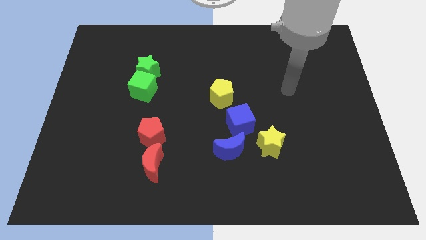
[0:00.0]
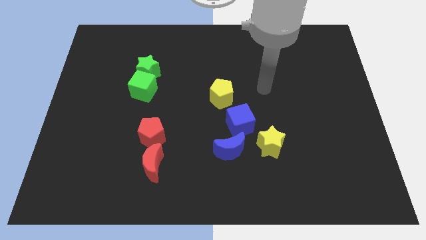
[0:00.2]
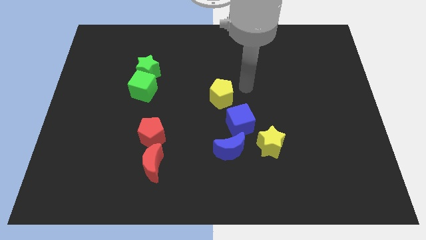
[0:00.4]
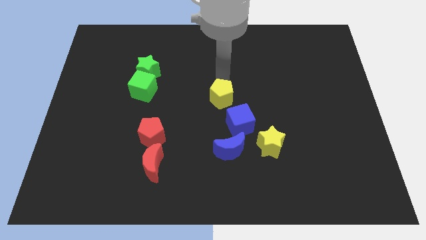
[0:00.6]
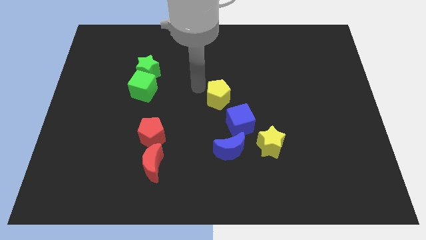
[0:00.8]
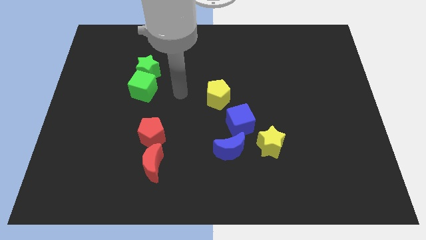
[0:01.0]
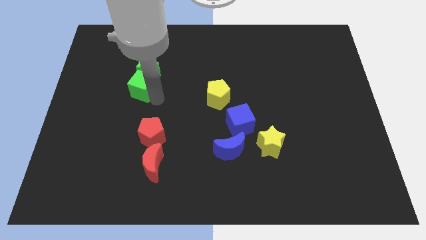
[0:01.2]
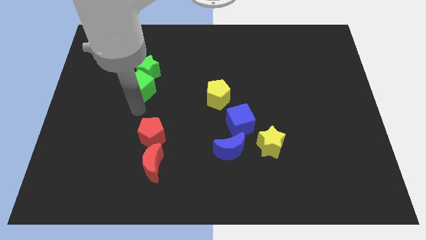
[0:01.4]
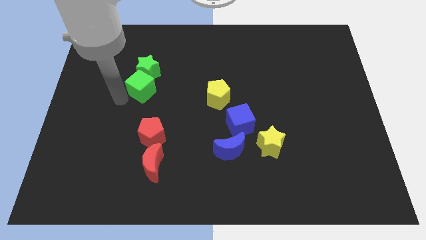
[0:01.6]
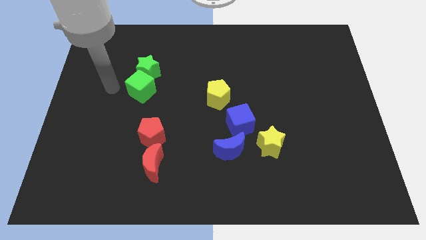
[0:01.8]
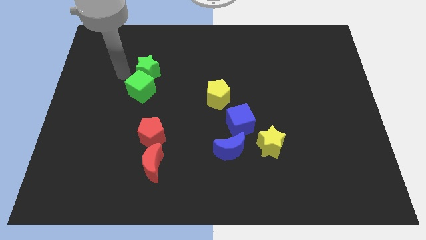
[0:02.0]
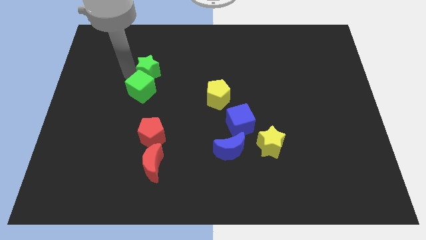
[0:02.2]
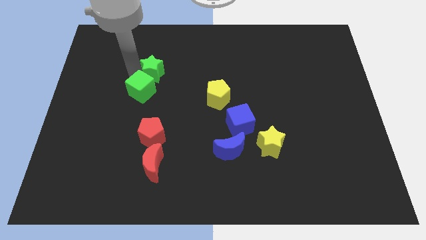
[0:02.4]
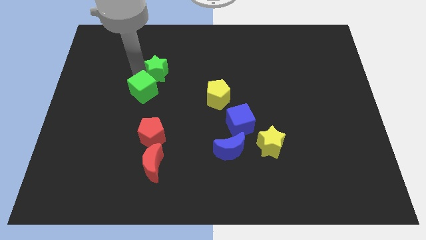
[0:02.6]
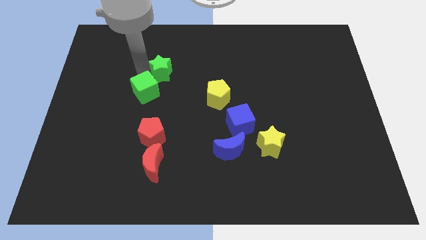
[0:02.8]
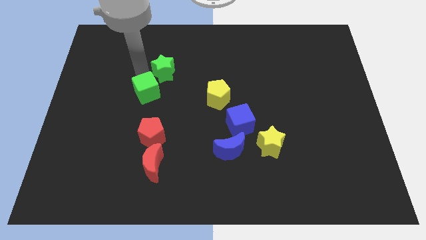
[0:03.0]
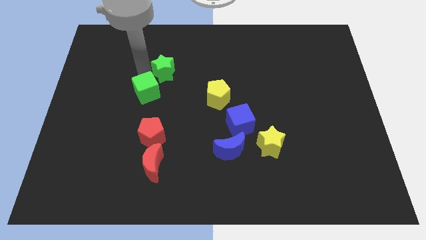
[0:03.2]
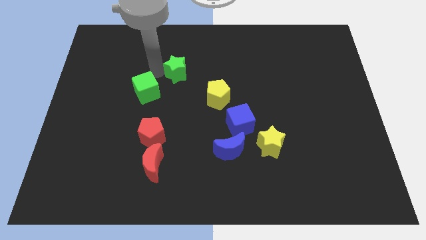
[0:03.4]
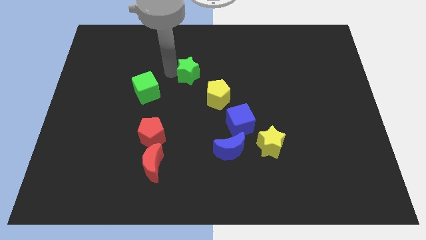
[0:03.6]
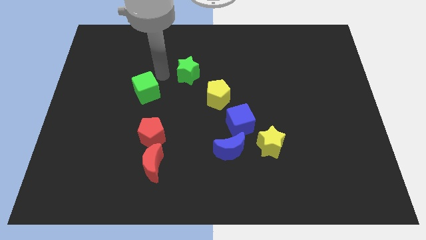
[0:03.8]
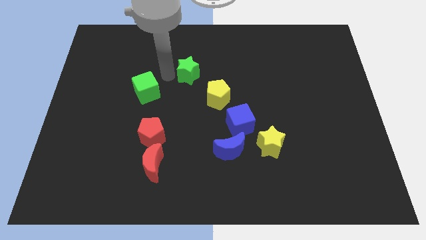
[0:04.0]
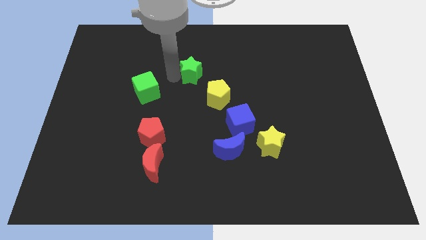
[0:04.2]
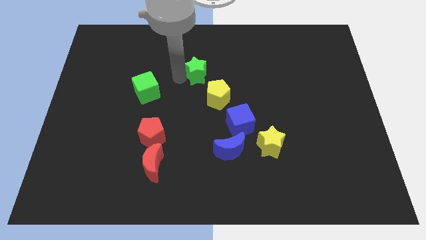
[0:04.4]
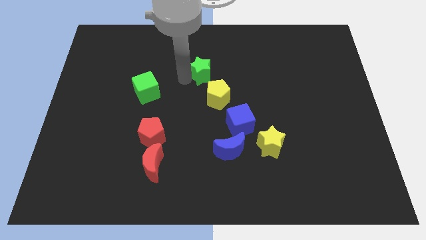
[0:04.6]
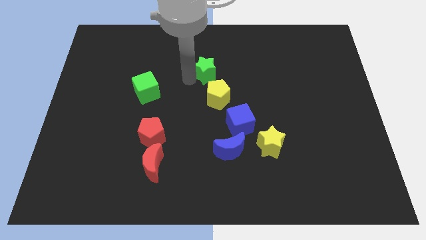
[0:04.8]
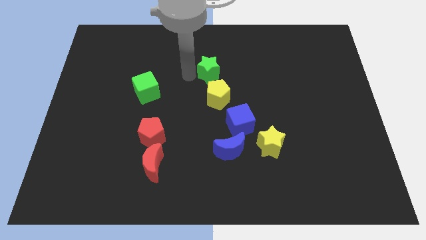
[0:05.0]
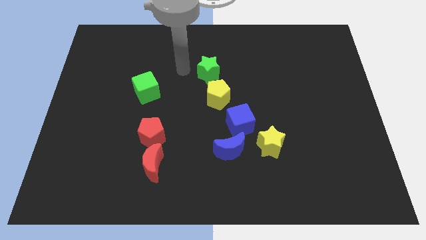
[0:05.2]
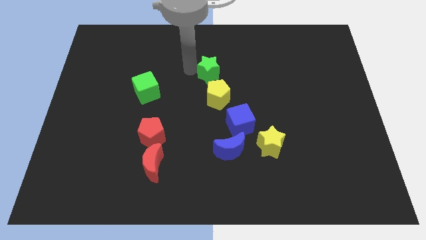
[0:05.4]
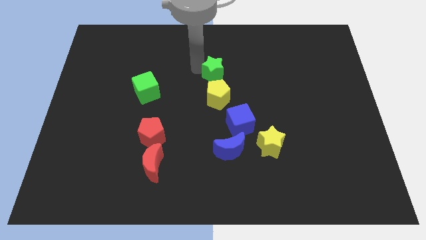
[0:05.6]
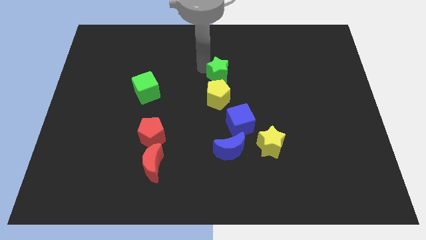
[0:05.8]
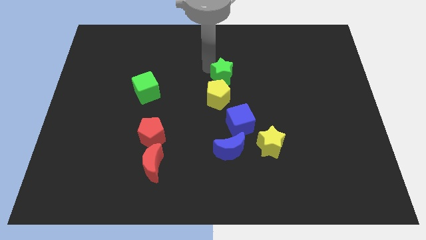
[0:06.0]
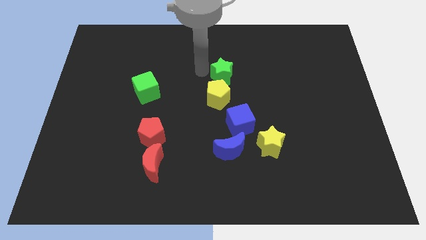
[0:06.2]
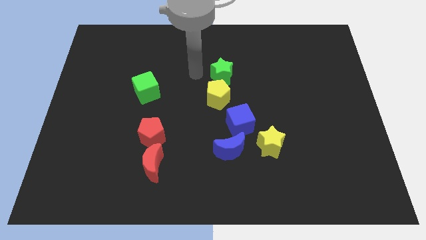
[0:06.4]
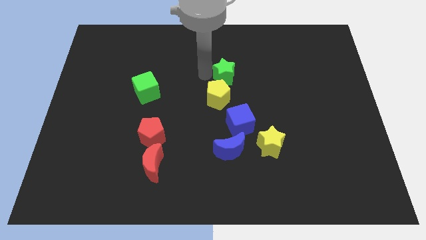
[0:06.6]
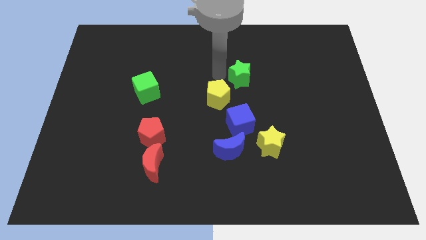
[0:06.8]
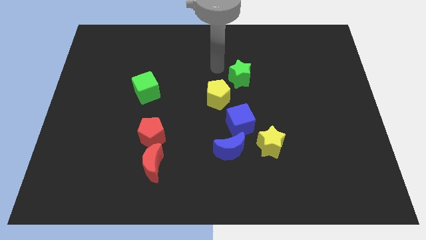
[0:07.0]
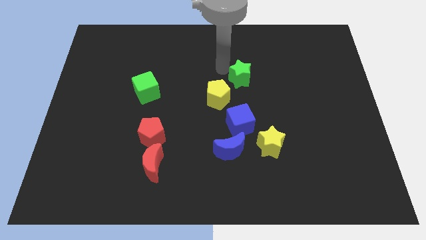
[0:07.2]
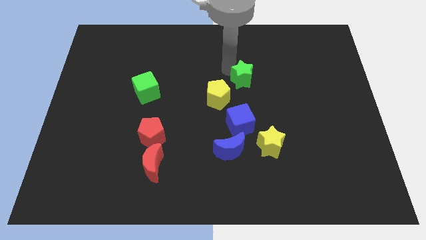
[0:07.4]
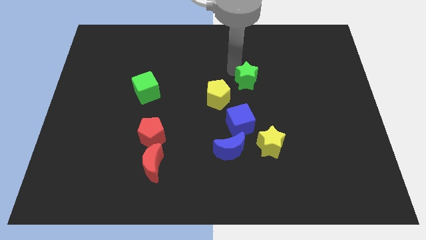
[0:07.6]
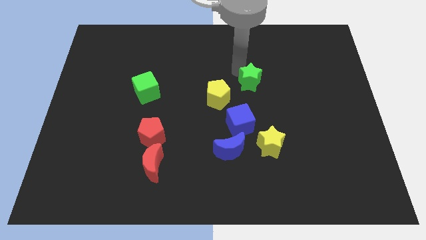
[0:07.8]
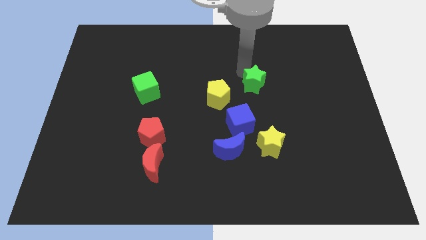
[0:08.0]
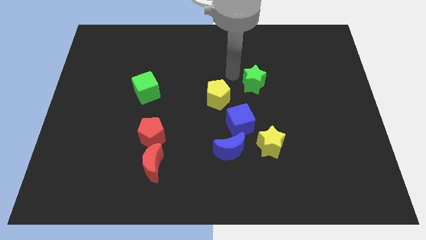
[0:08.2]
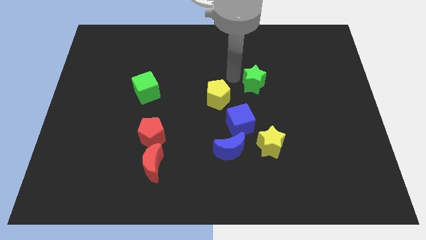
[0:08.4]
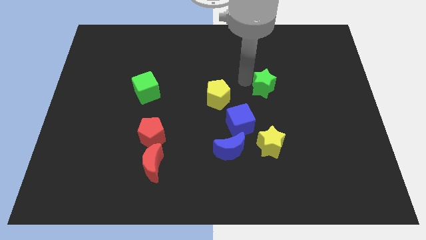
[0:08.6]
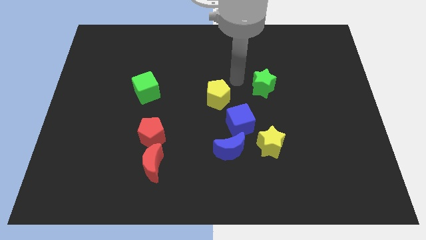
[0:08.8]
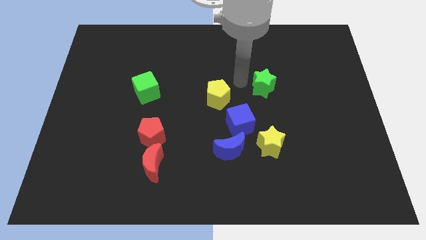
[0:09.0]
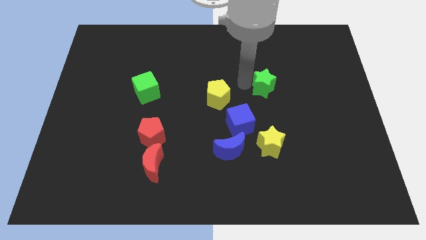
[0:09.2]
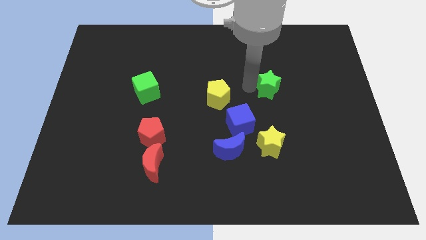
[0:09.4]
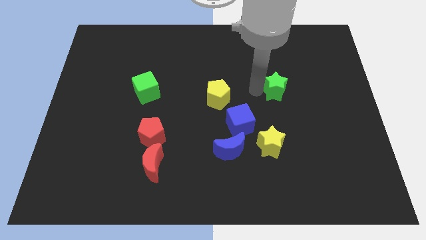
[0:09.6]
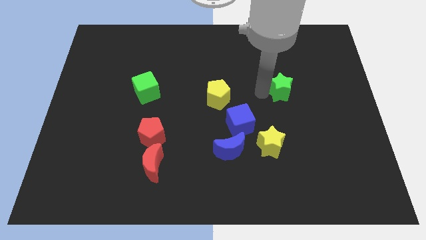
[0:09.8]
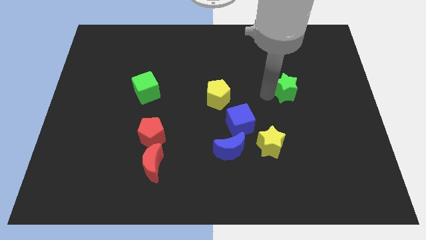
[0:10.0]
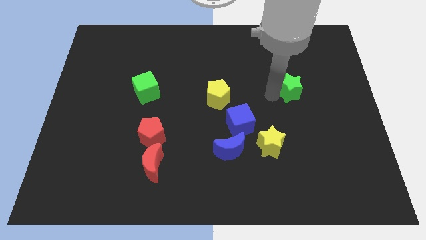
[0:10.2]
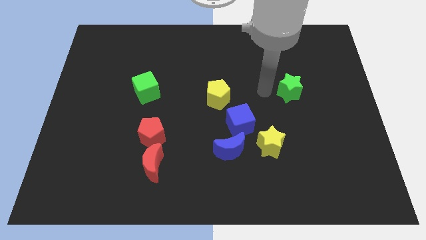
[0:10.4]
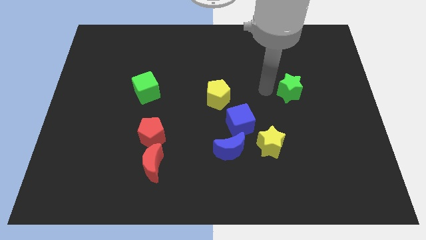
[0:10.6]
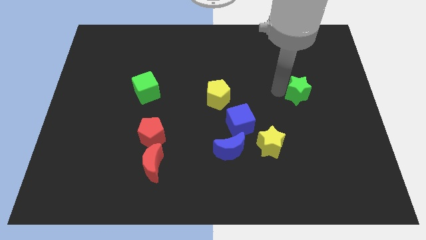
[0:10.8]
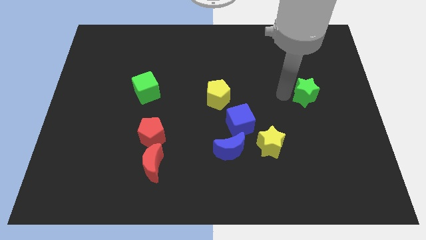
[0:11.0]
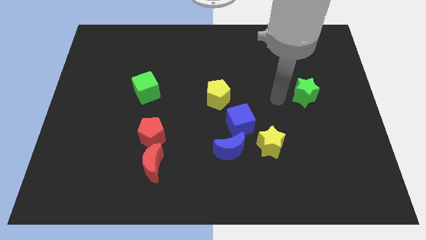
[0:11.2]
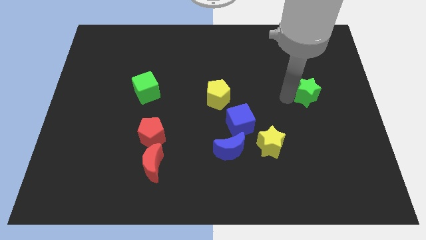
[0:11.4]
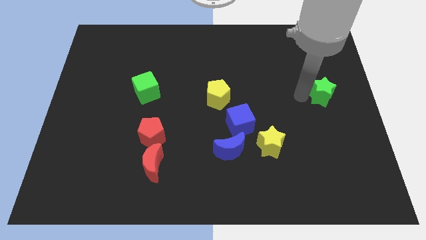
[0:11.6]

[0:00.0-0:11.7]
push the green star to the right side

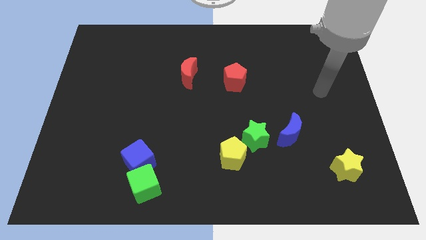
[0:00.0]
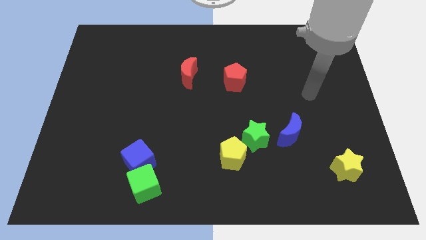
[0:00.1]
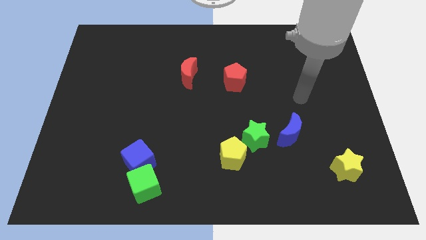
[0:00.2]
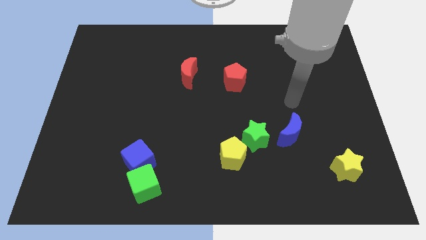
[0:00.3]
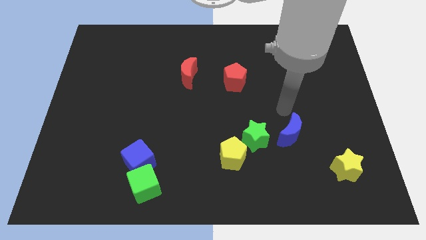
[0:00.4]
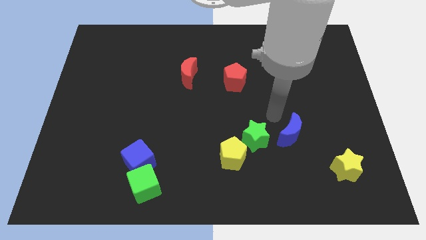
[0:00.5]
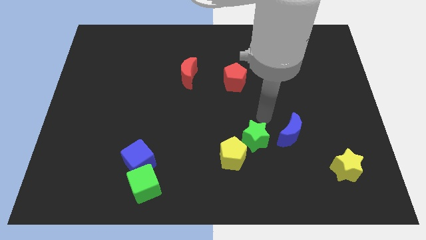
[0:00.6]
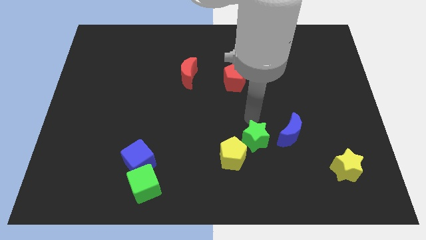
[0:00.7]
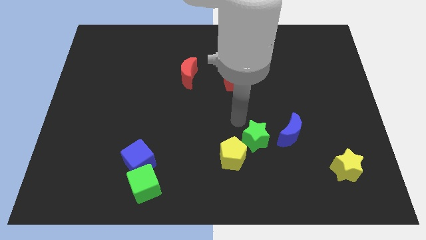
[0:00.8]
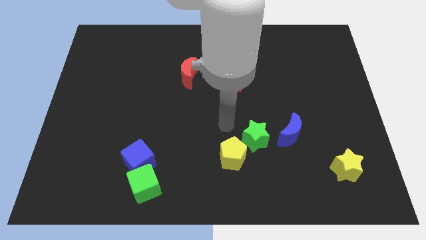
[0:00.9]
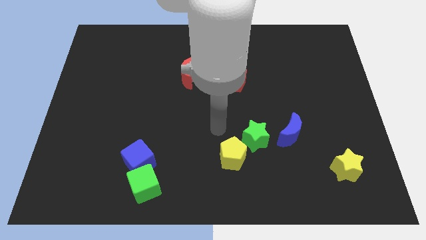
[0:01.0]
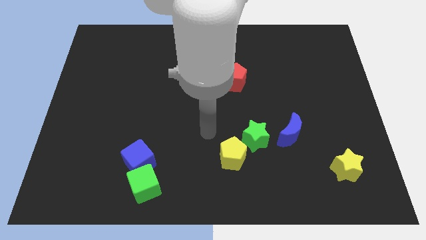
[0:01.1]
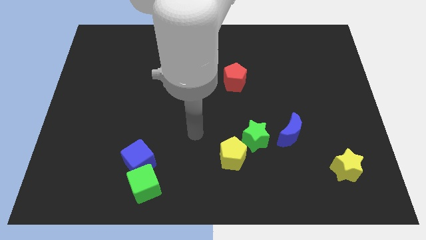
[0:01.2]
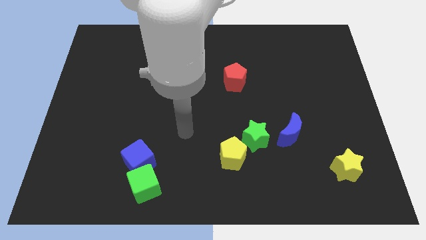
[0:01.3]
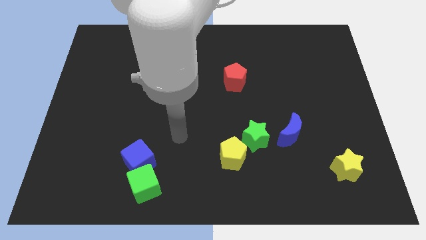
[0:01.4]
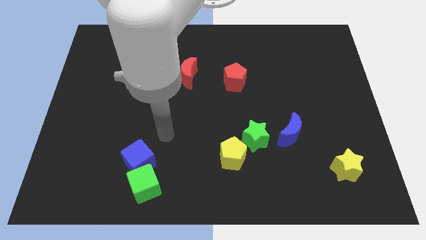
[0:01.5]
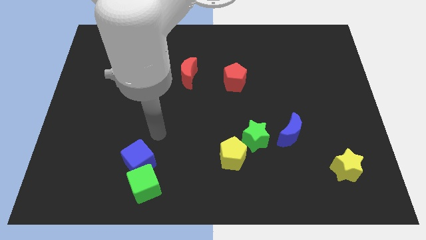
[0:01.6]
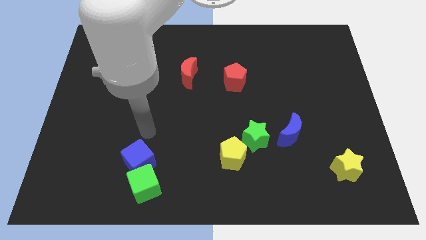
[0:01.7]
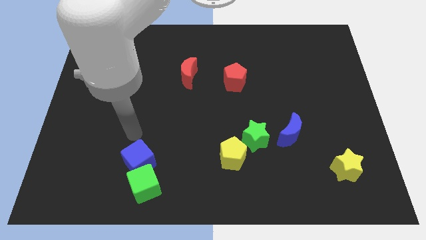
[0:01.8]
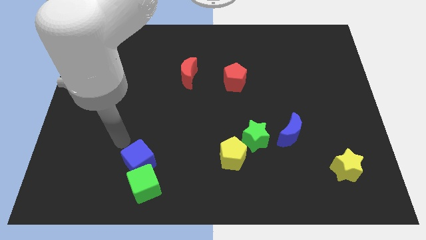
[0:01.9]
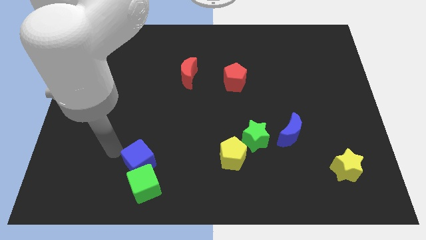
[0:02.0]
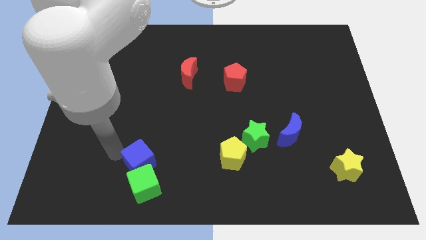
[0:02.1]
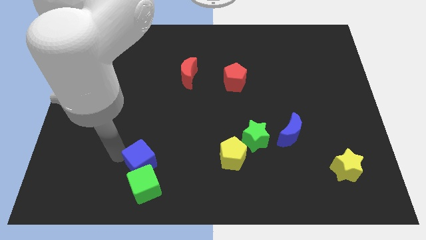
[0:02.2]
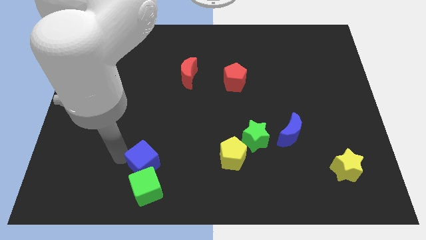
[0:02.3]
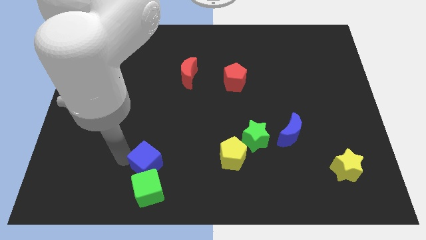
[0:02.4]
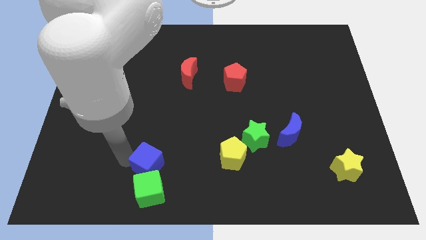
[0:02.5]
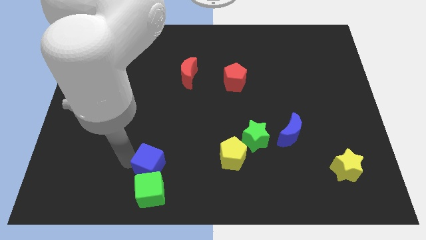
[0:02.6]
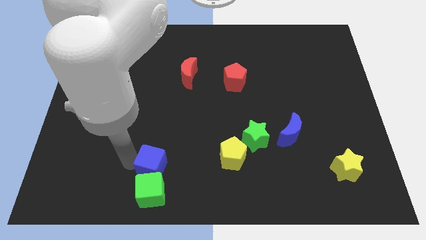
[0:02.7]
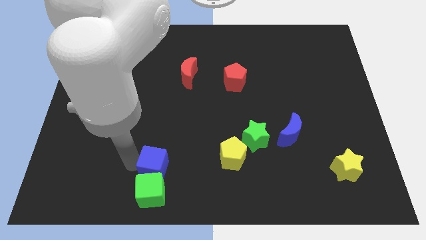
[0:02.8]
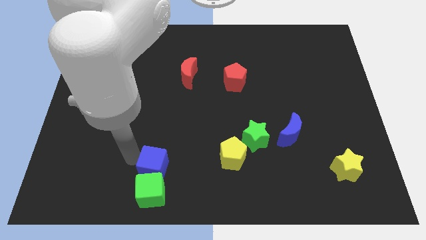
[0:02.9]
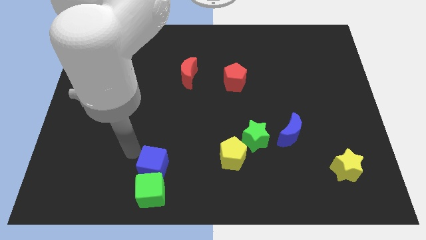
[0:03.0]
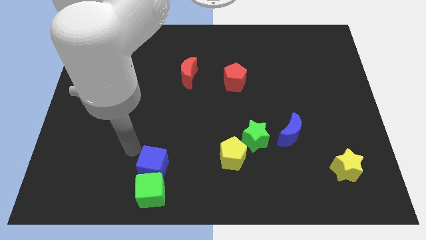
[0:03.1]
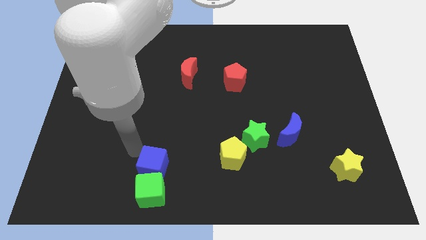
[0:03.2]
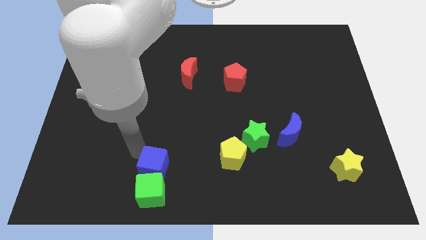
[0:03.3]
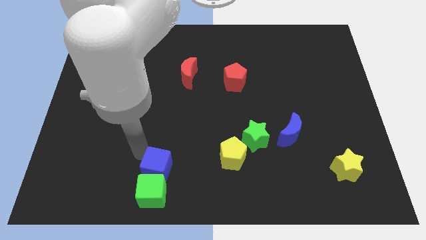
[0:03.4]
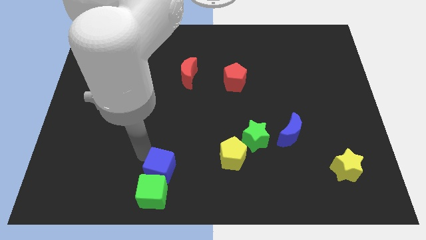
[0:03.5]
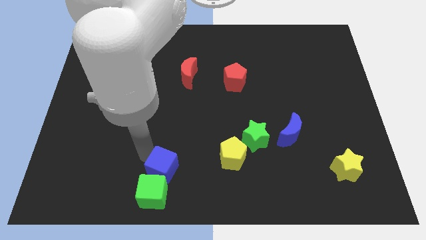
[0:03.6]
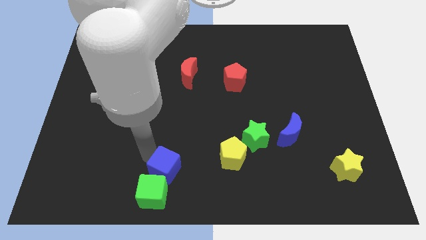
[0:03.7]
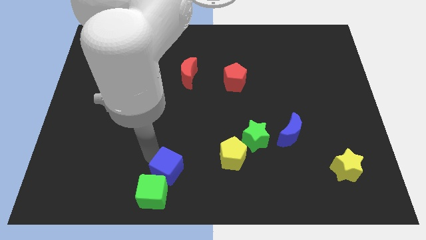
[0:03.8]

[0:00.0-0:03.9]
push the blue cube to the bottom side
